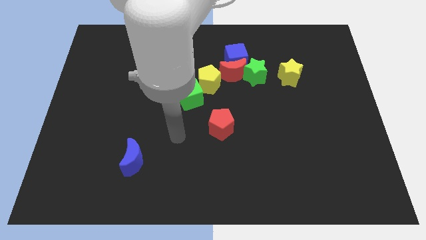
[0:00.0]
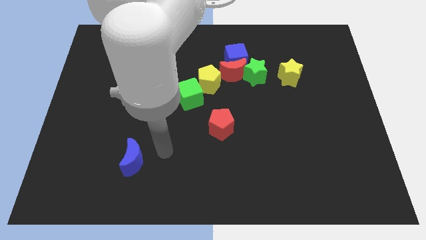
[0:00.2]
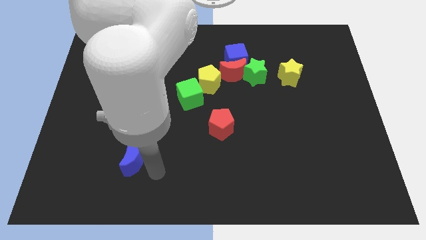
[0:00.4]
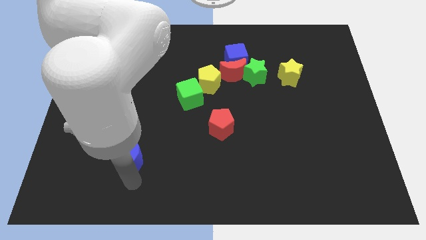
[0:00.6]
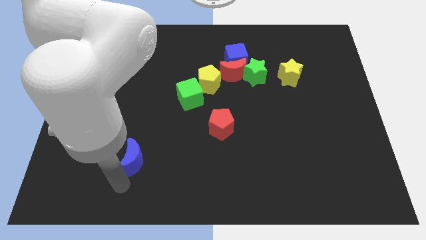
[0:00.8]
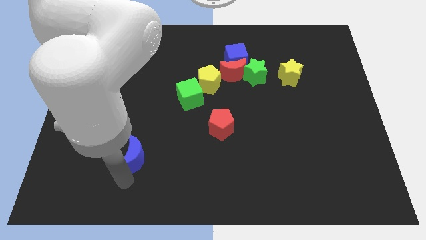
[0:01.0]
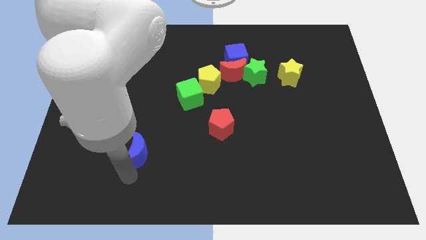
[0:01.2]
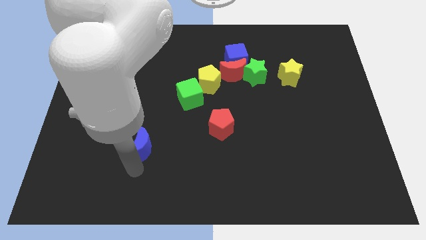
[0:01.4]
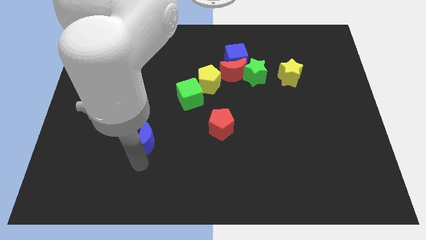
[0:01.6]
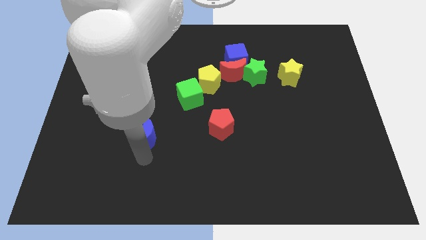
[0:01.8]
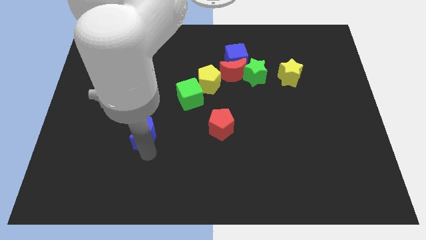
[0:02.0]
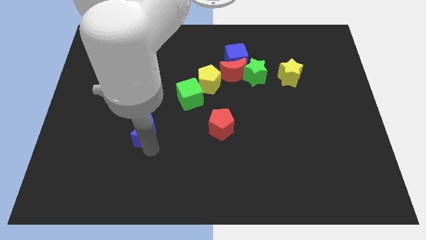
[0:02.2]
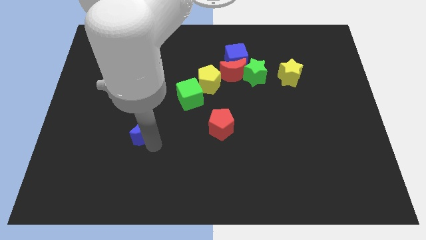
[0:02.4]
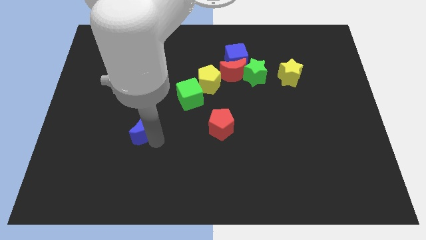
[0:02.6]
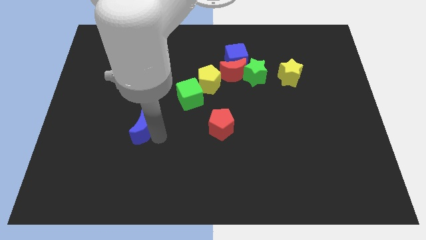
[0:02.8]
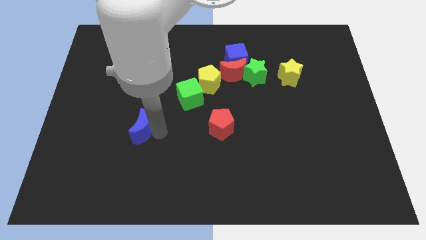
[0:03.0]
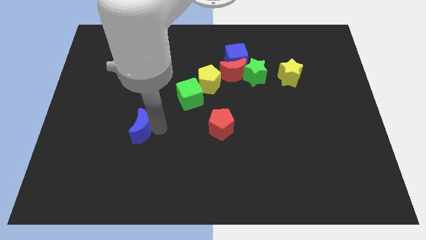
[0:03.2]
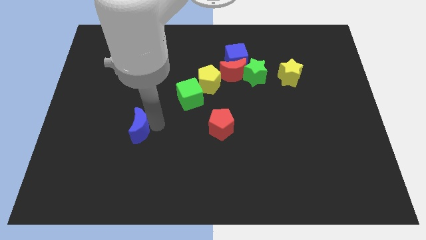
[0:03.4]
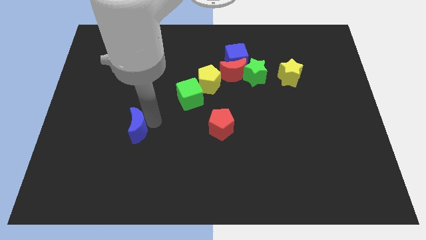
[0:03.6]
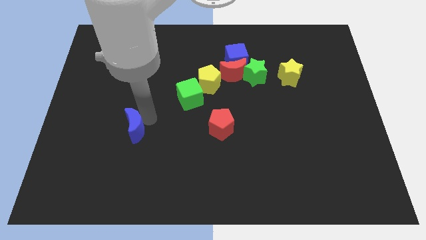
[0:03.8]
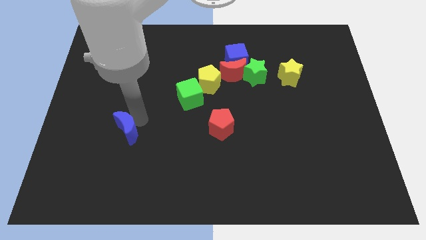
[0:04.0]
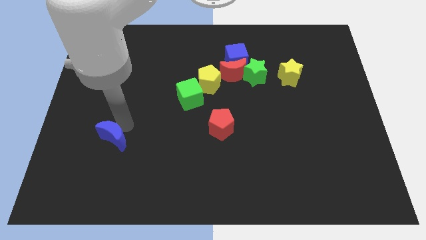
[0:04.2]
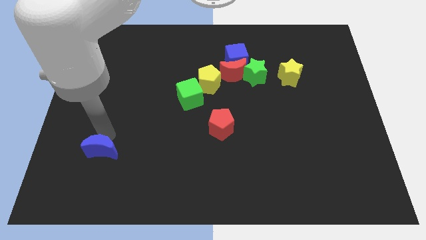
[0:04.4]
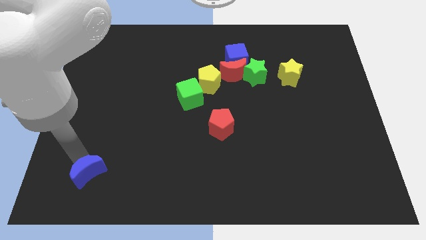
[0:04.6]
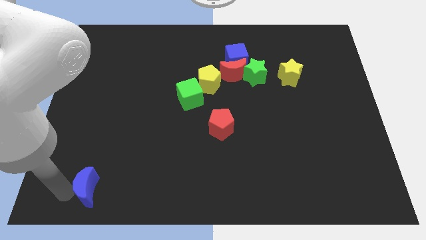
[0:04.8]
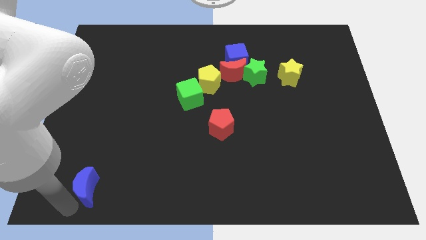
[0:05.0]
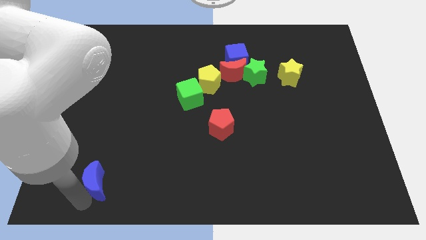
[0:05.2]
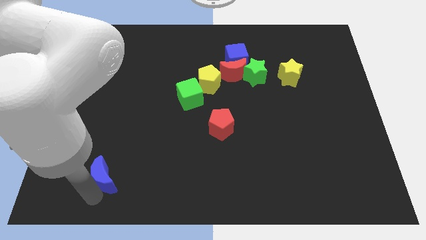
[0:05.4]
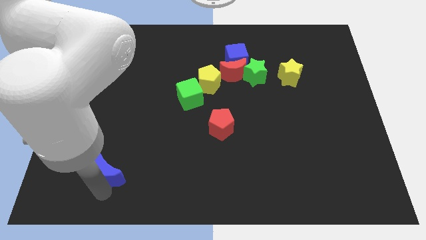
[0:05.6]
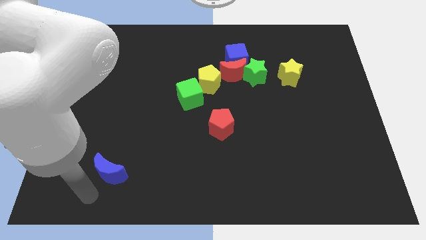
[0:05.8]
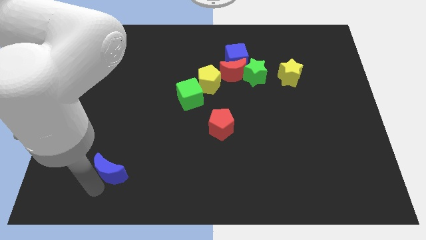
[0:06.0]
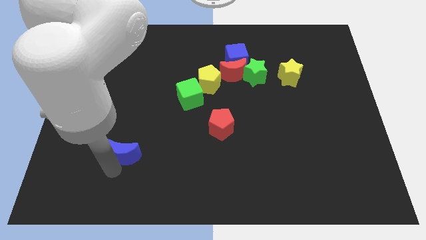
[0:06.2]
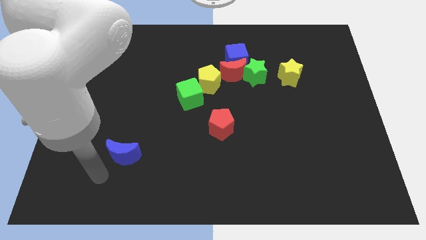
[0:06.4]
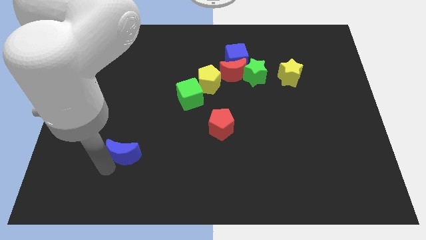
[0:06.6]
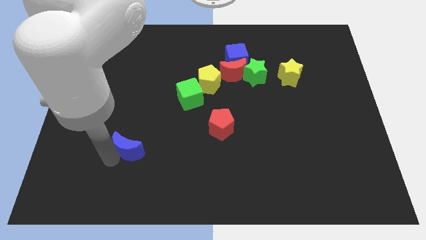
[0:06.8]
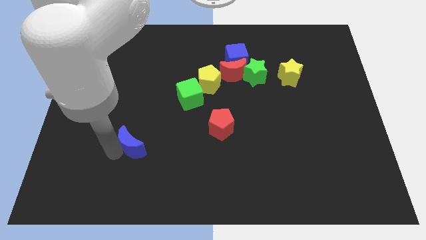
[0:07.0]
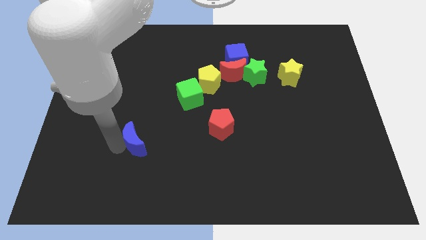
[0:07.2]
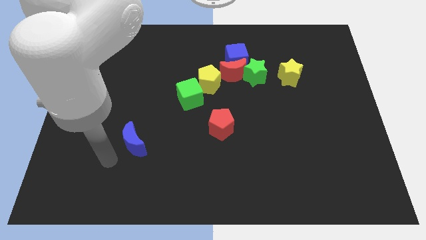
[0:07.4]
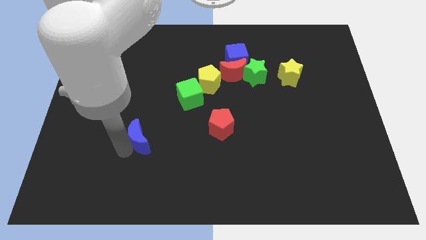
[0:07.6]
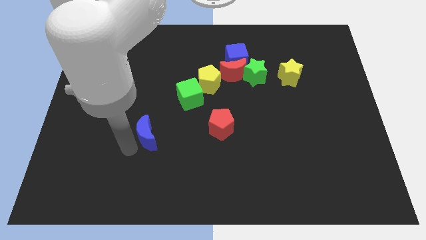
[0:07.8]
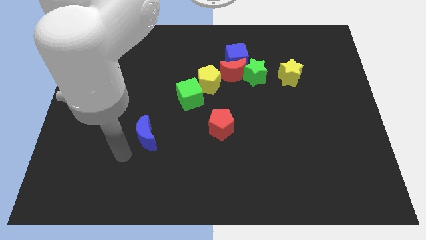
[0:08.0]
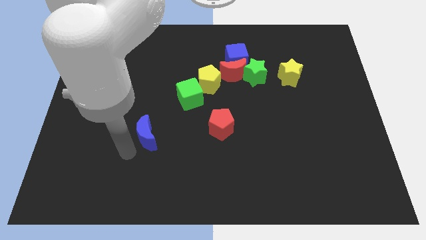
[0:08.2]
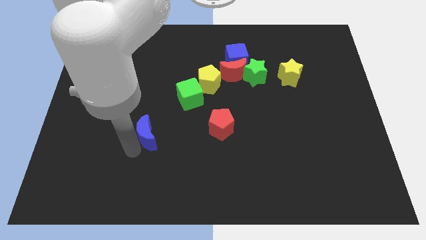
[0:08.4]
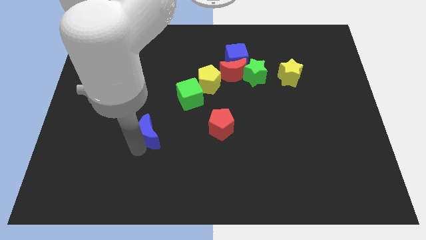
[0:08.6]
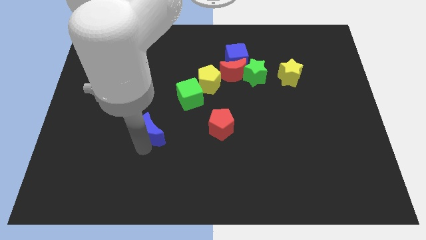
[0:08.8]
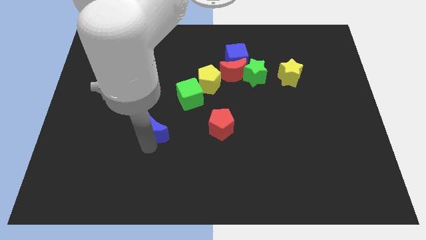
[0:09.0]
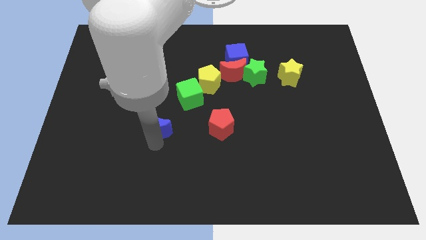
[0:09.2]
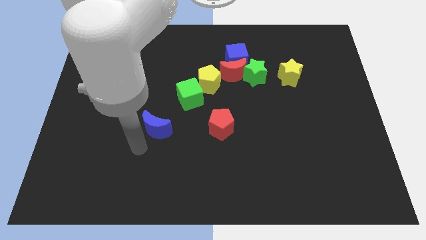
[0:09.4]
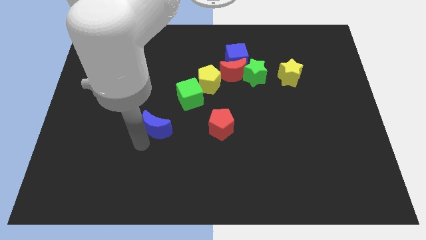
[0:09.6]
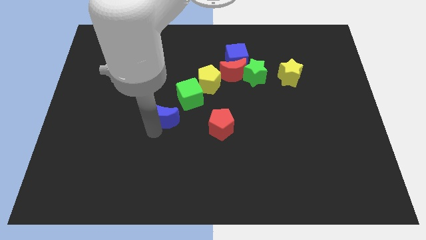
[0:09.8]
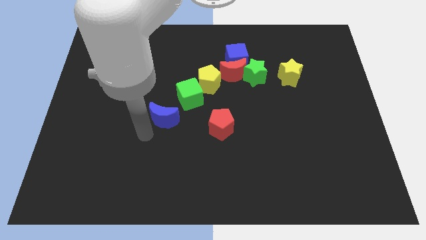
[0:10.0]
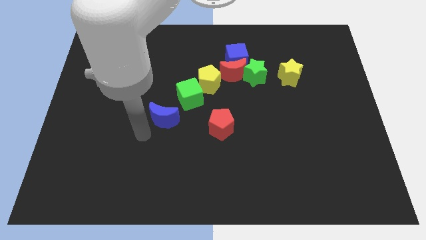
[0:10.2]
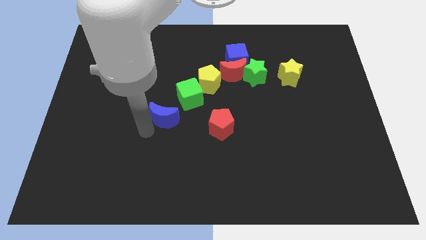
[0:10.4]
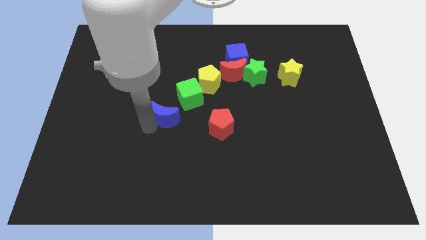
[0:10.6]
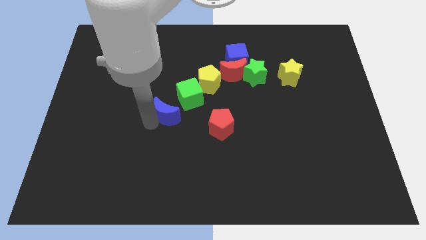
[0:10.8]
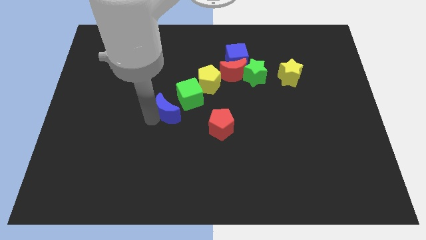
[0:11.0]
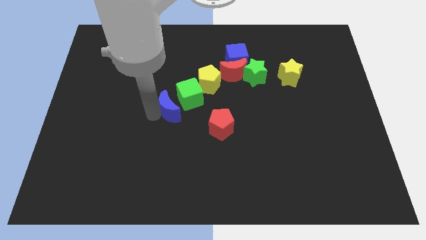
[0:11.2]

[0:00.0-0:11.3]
push the blue moon next to the green cube

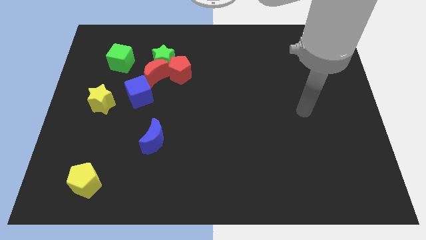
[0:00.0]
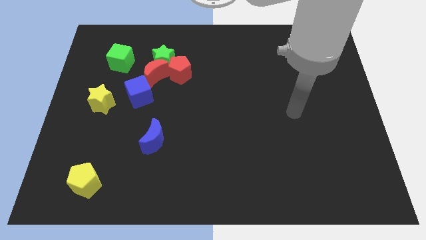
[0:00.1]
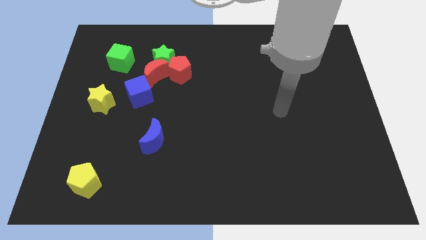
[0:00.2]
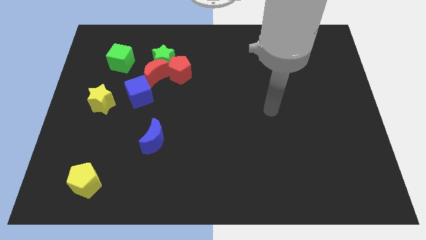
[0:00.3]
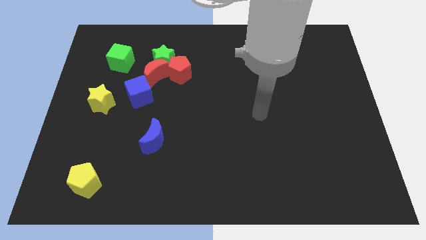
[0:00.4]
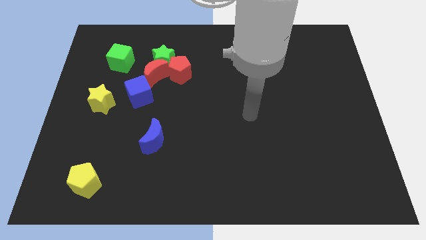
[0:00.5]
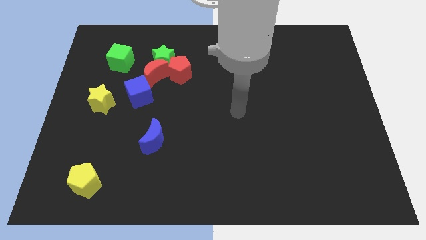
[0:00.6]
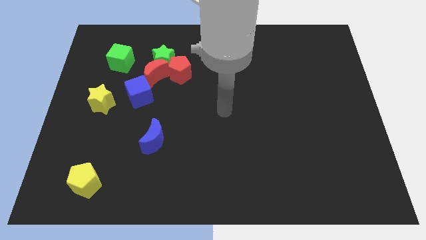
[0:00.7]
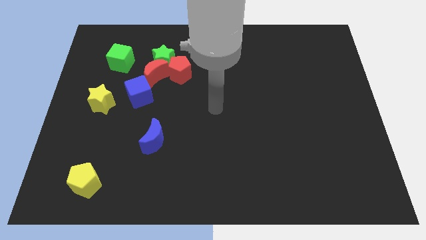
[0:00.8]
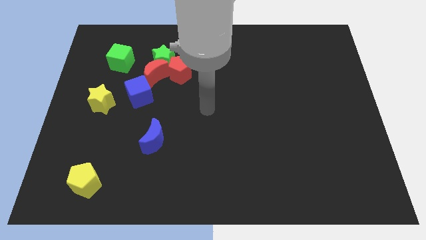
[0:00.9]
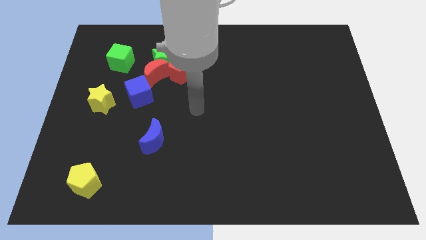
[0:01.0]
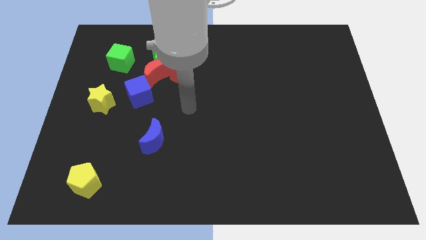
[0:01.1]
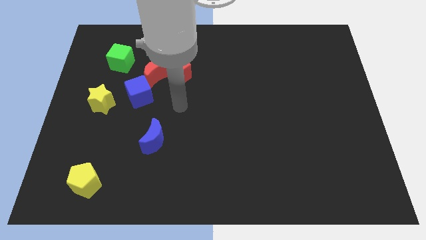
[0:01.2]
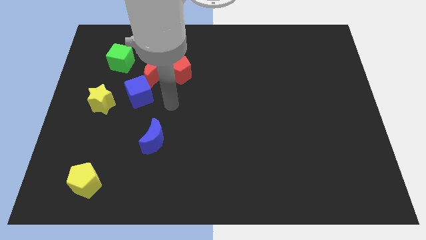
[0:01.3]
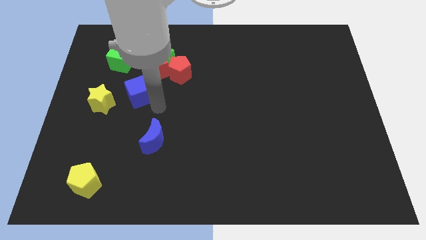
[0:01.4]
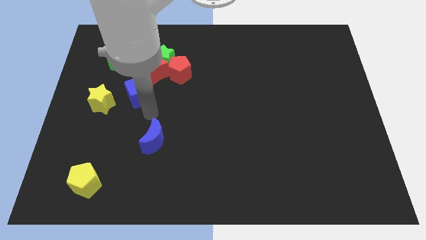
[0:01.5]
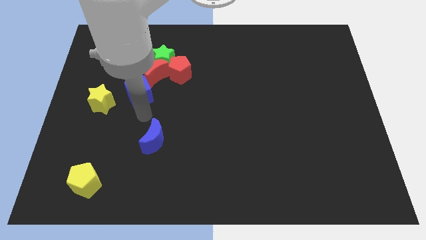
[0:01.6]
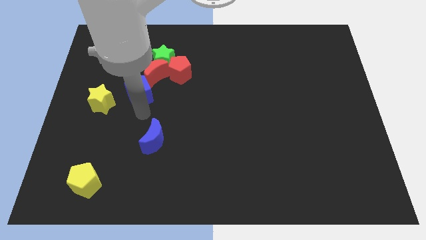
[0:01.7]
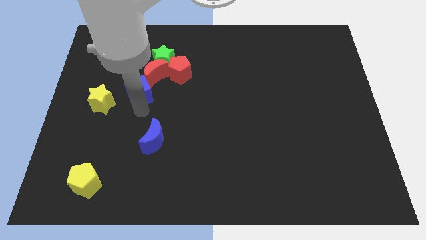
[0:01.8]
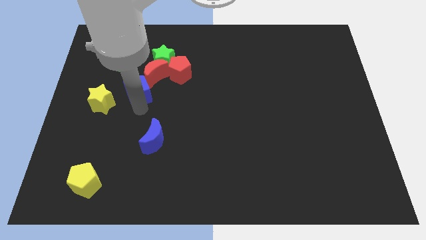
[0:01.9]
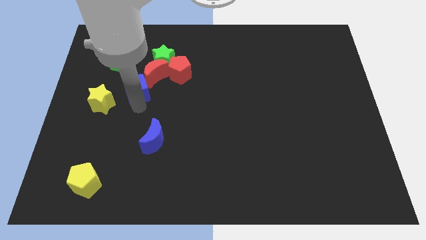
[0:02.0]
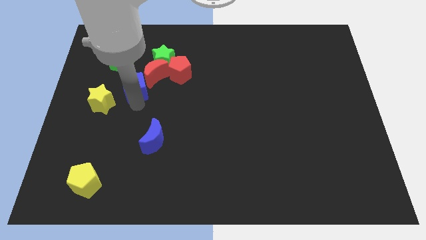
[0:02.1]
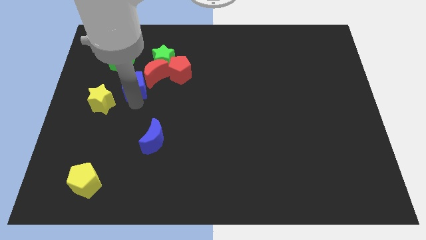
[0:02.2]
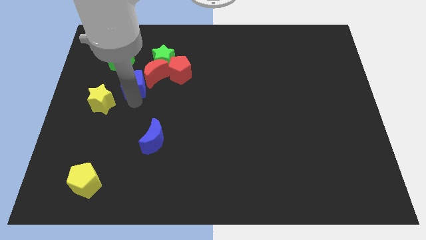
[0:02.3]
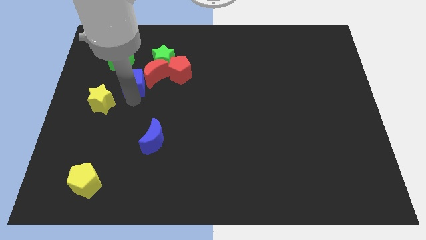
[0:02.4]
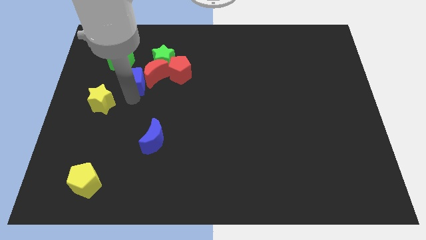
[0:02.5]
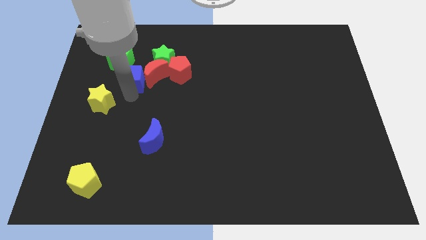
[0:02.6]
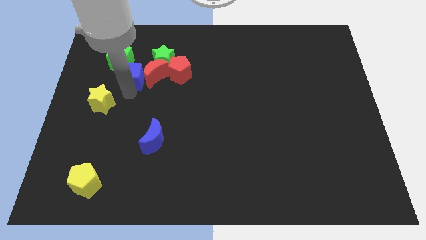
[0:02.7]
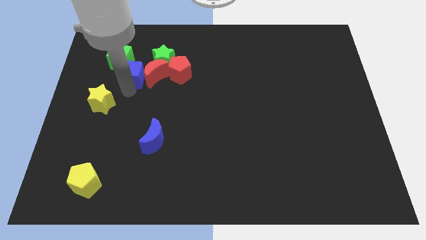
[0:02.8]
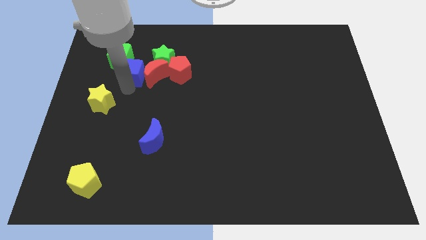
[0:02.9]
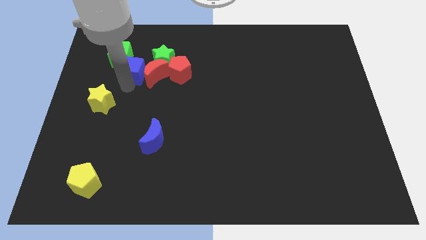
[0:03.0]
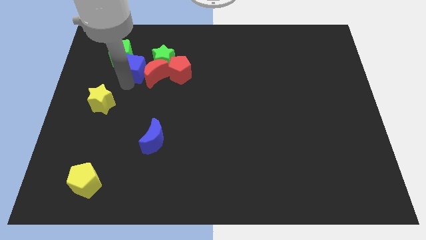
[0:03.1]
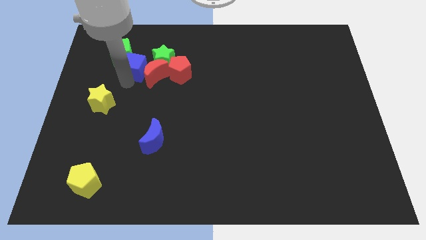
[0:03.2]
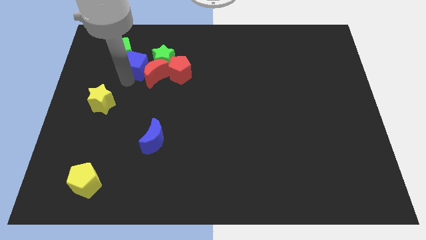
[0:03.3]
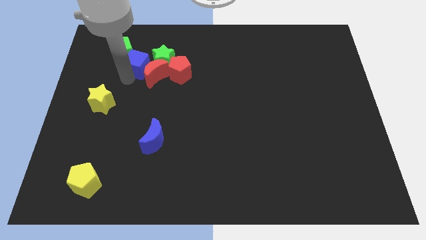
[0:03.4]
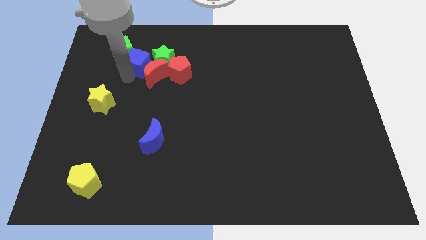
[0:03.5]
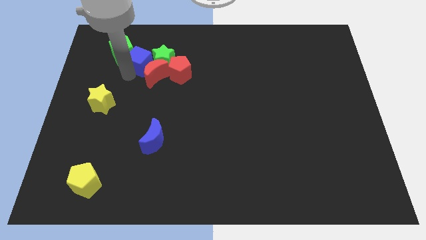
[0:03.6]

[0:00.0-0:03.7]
put the blue cube close to the green star
